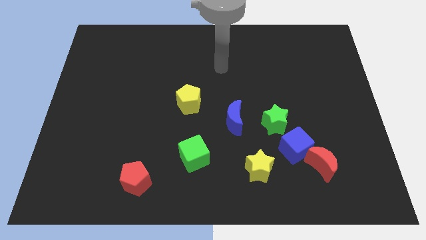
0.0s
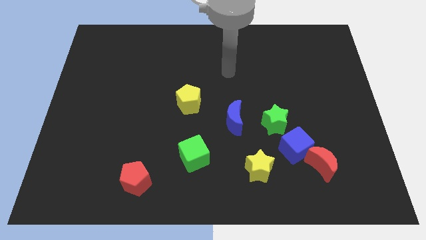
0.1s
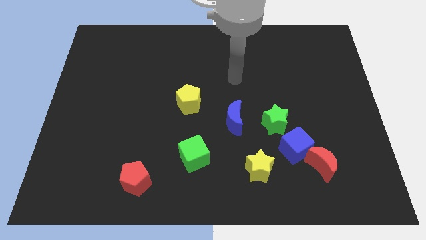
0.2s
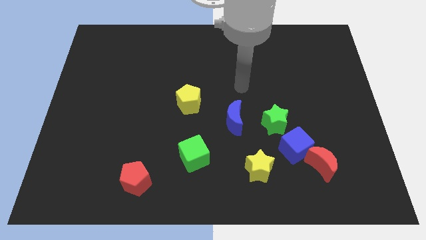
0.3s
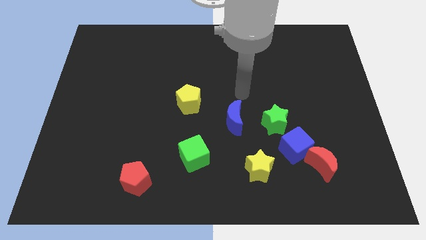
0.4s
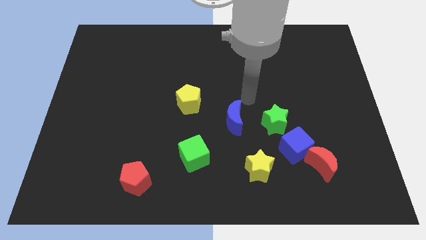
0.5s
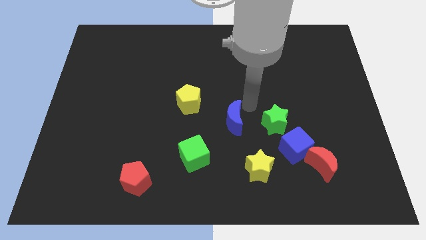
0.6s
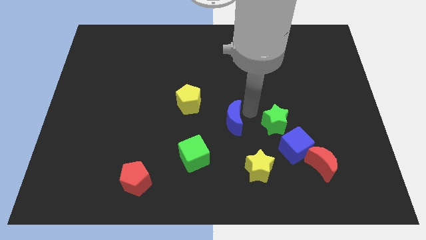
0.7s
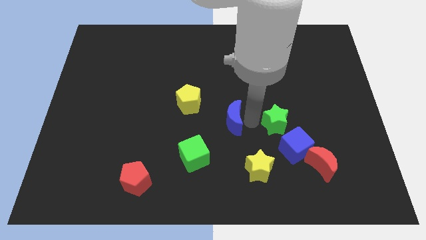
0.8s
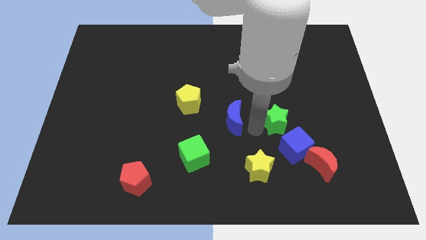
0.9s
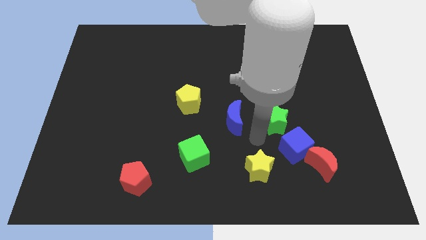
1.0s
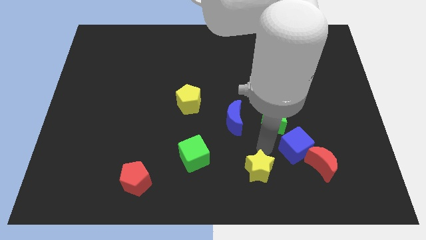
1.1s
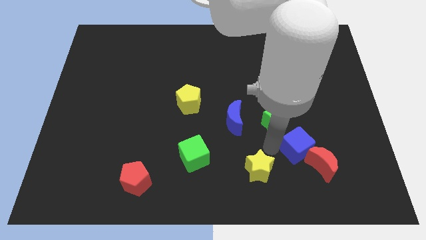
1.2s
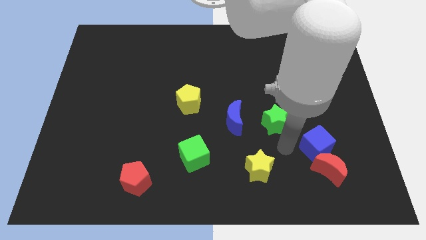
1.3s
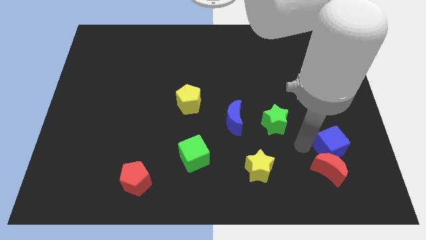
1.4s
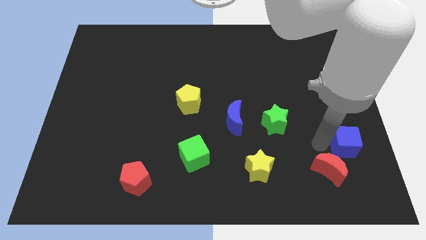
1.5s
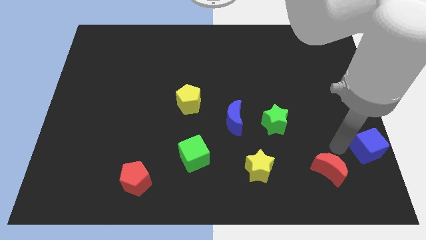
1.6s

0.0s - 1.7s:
pull the red moon apart from the blue cube

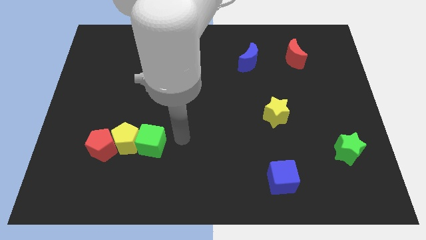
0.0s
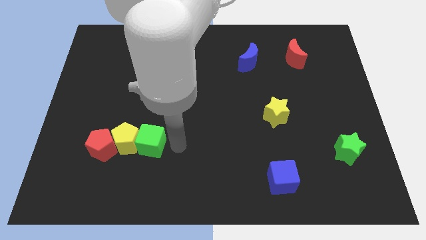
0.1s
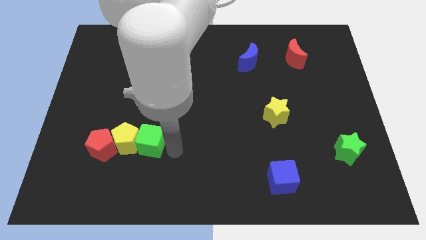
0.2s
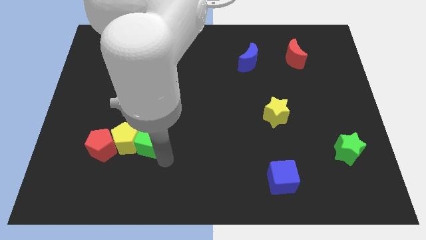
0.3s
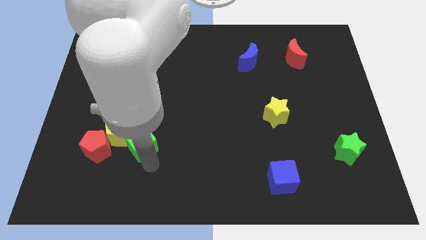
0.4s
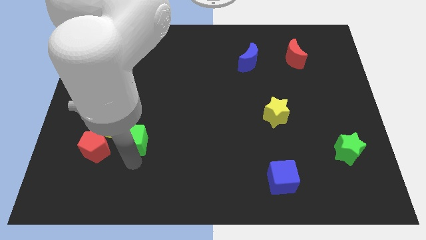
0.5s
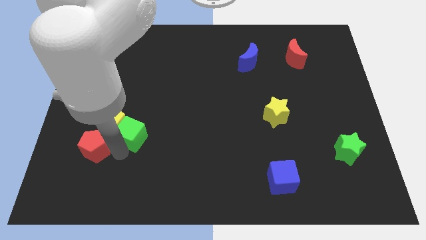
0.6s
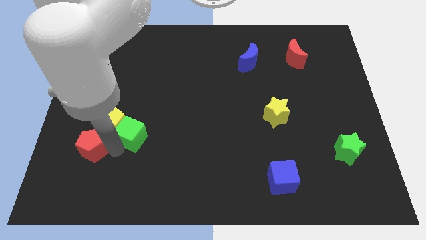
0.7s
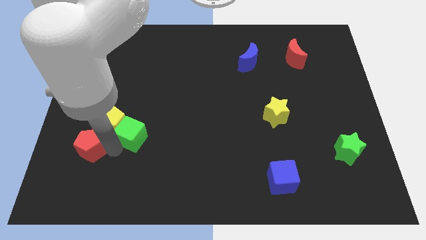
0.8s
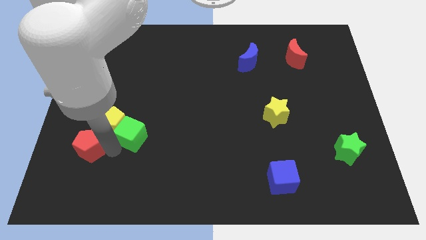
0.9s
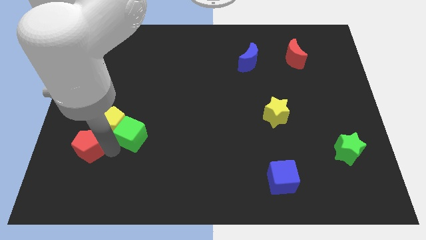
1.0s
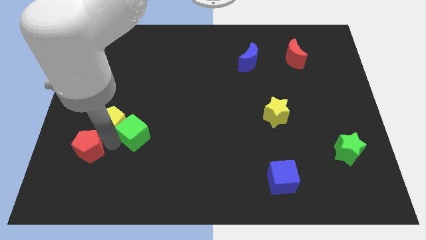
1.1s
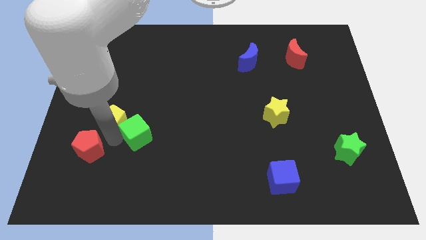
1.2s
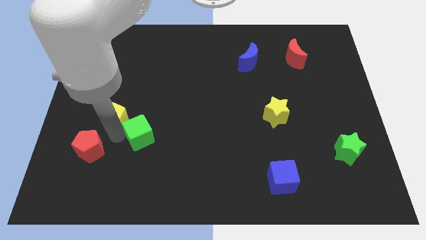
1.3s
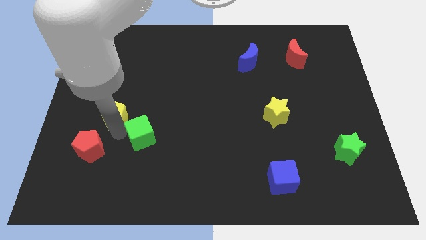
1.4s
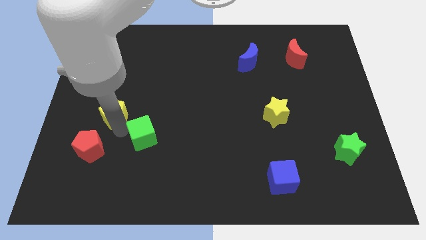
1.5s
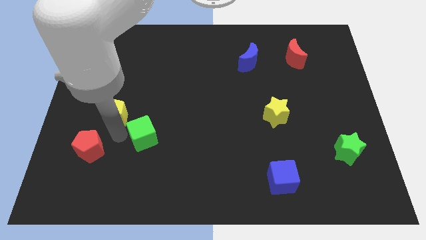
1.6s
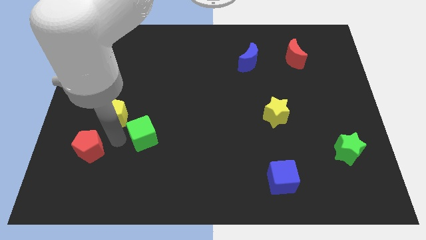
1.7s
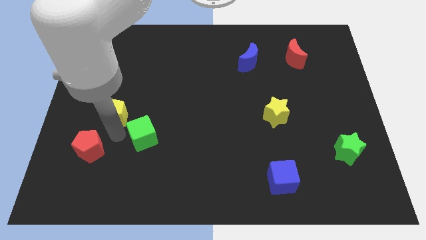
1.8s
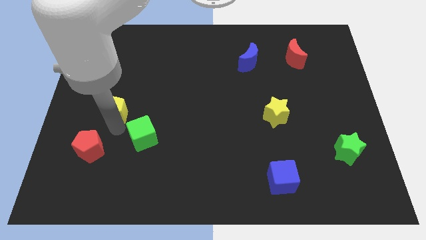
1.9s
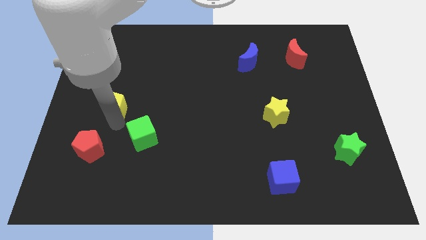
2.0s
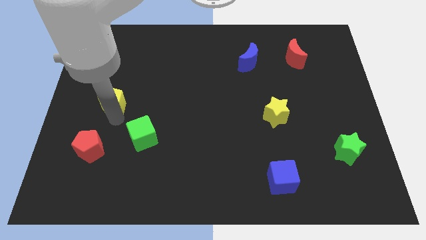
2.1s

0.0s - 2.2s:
separate the yellow pentagon from the red pentagon and green cube

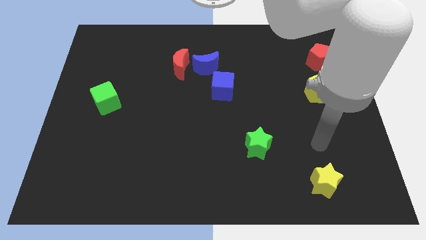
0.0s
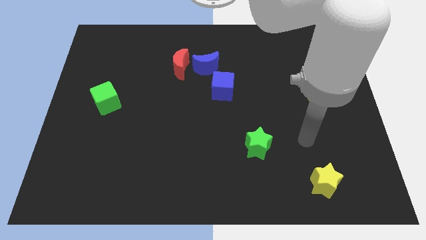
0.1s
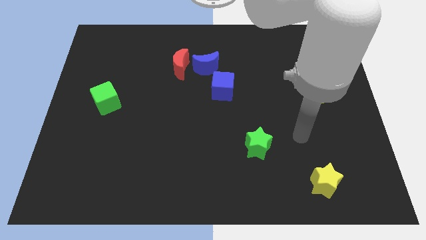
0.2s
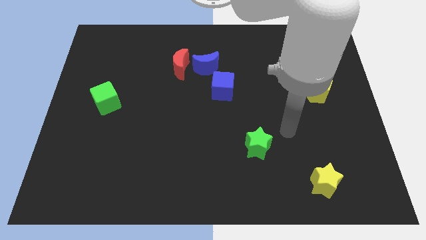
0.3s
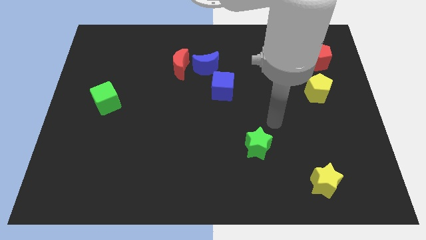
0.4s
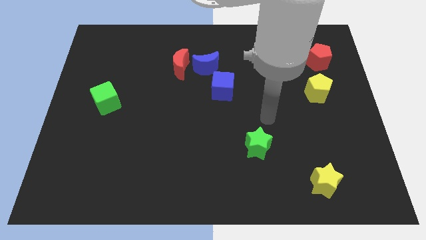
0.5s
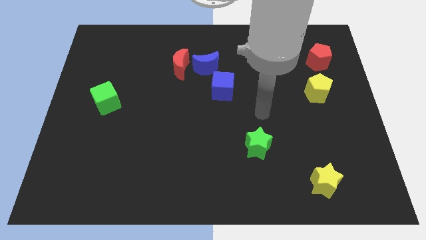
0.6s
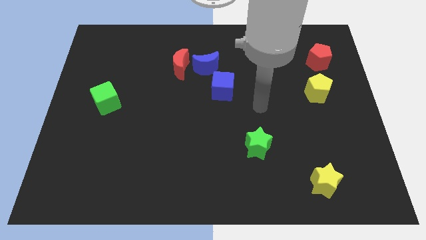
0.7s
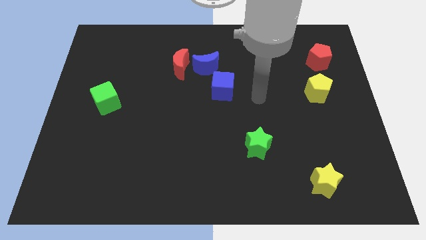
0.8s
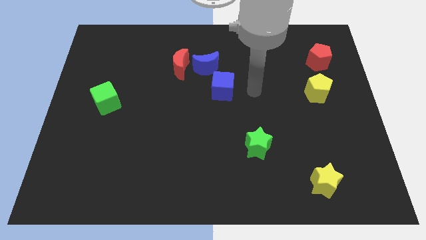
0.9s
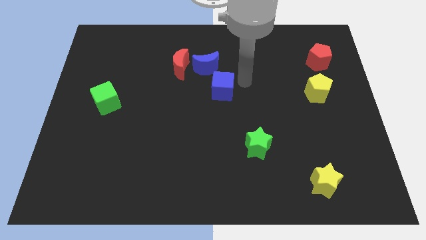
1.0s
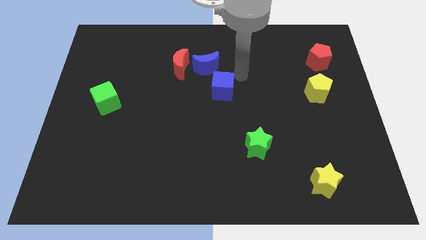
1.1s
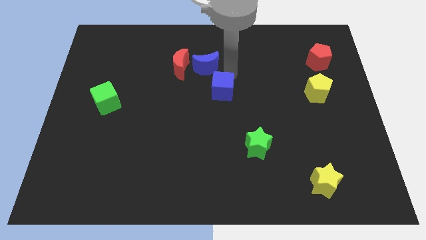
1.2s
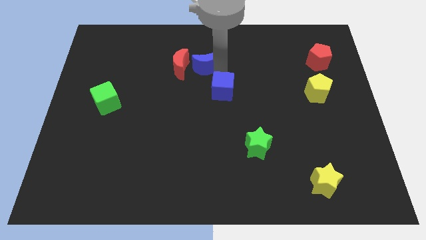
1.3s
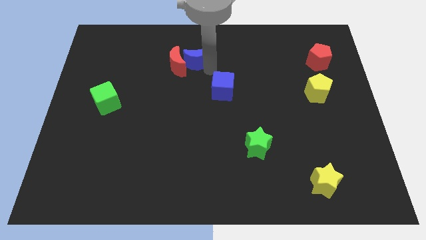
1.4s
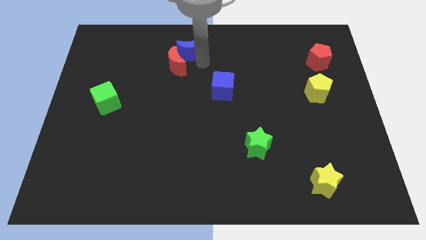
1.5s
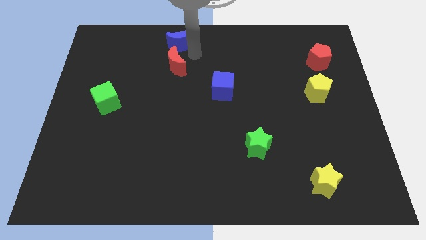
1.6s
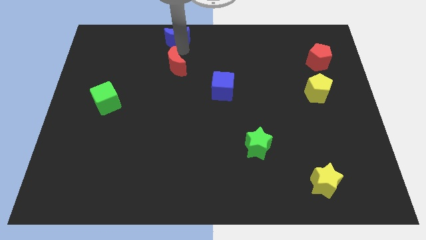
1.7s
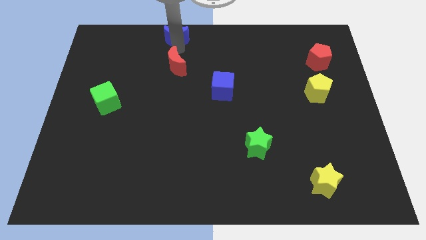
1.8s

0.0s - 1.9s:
move the red moon away from the blue moon

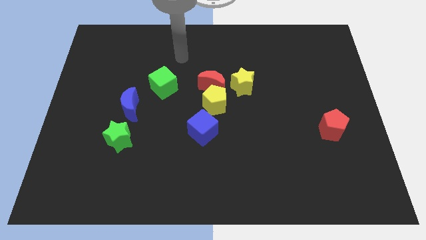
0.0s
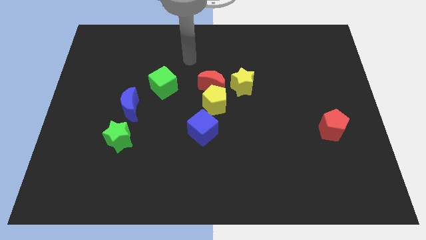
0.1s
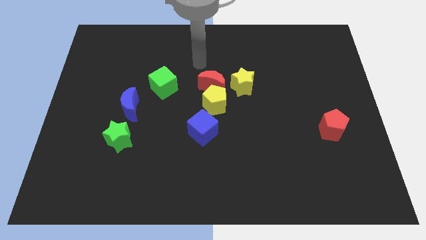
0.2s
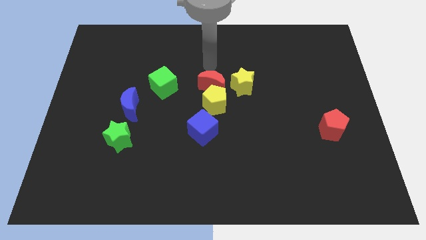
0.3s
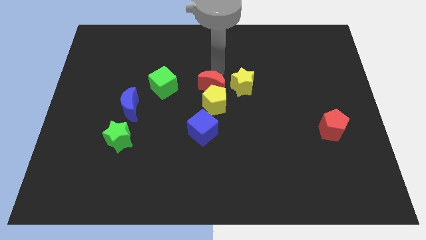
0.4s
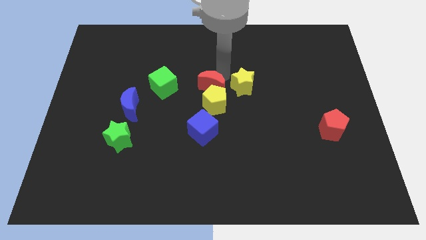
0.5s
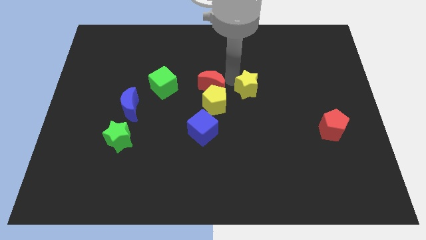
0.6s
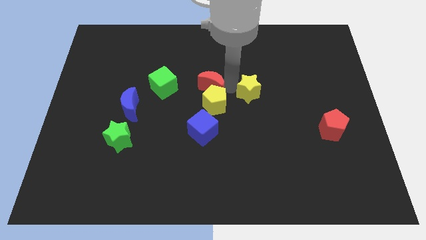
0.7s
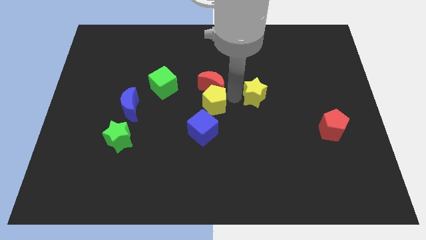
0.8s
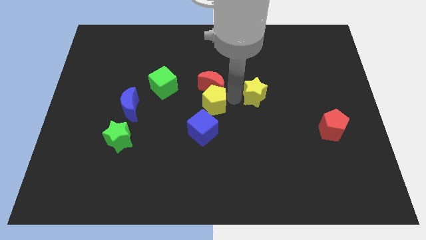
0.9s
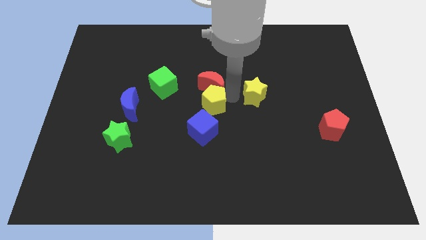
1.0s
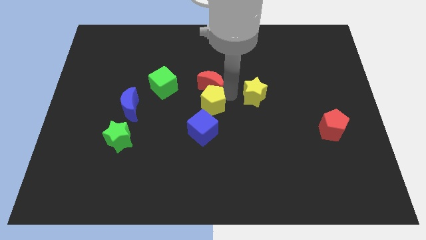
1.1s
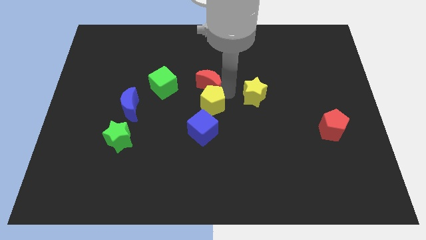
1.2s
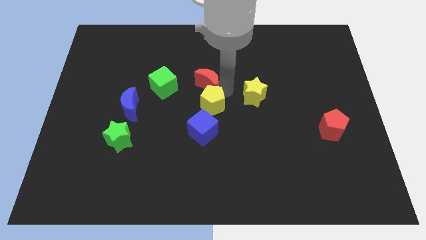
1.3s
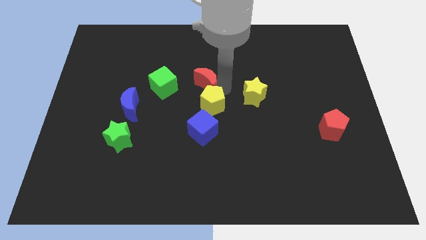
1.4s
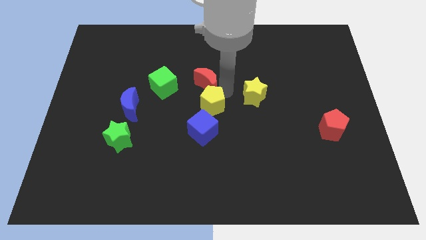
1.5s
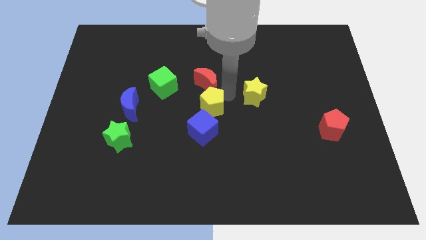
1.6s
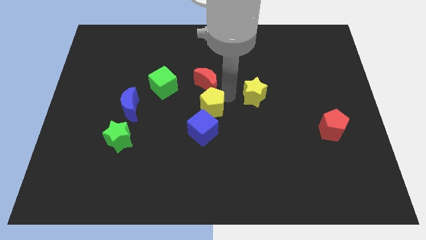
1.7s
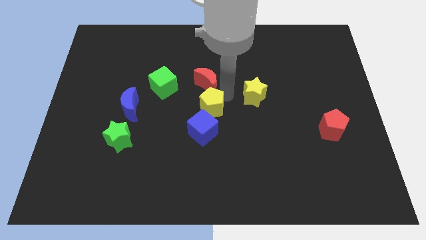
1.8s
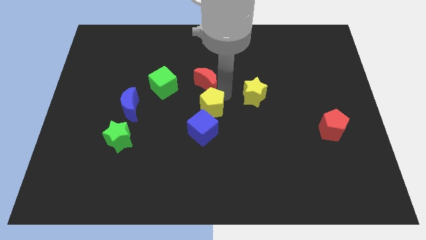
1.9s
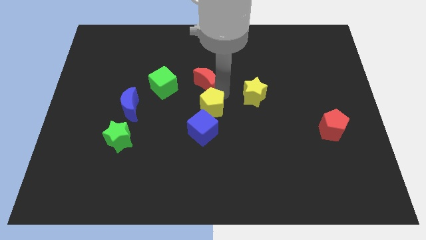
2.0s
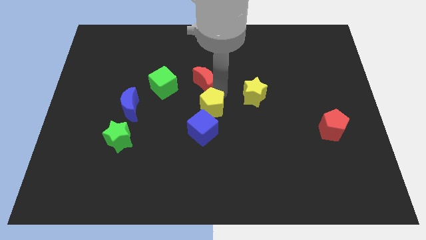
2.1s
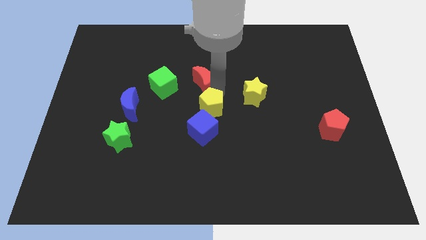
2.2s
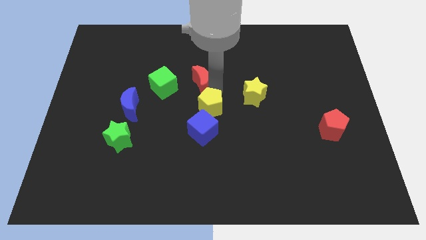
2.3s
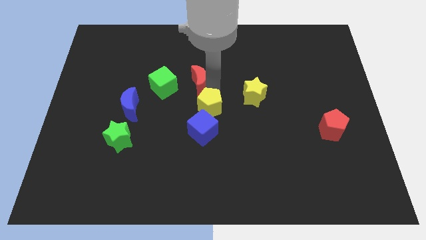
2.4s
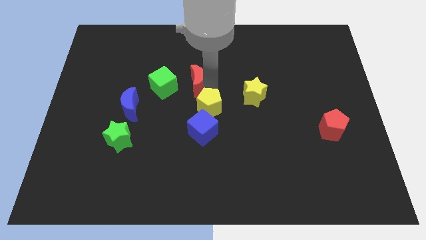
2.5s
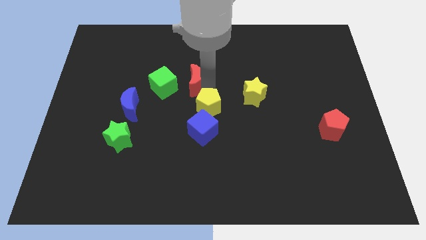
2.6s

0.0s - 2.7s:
move the red moon away from the yellow pentagon and yellow star

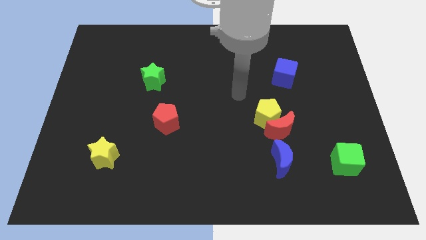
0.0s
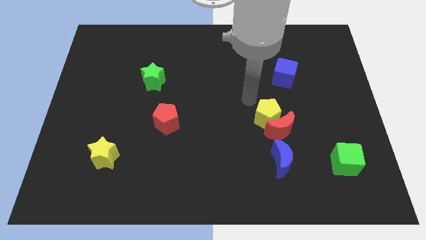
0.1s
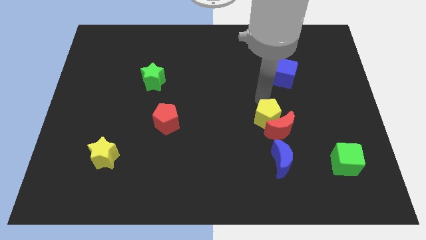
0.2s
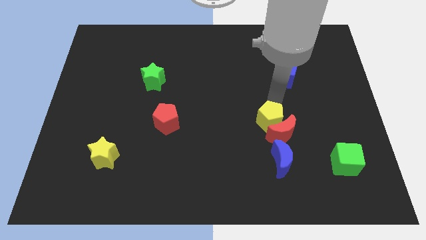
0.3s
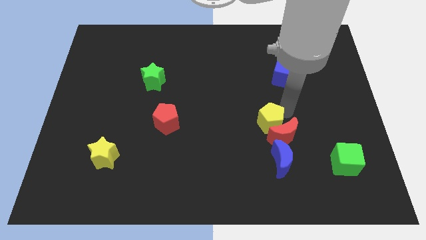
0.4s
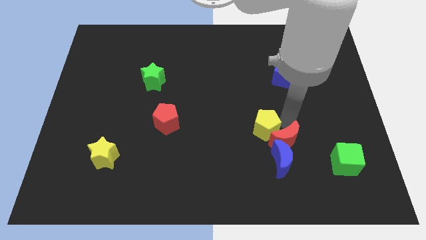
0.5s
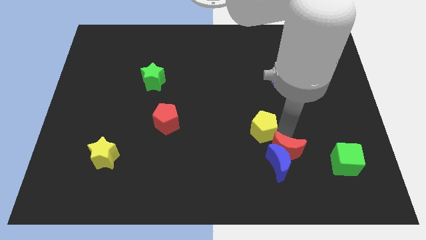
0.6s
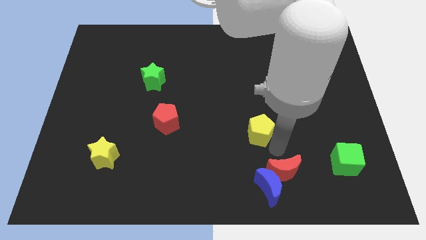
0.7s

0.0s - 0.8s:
separate the yellow pentagon from the red moon
